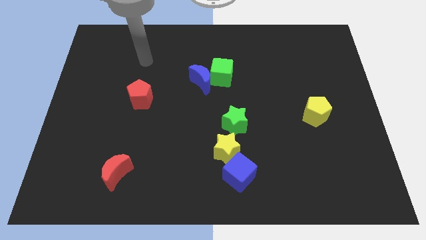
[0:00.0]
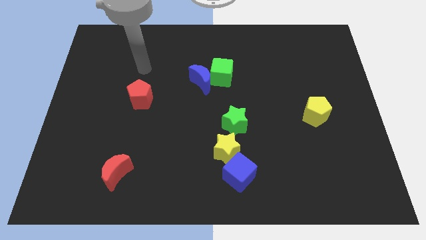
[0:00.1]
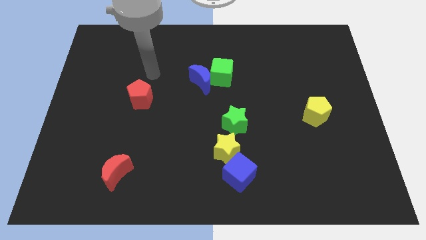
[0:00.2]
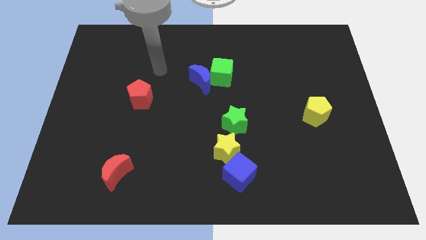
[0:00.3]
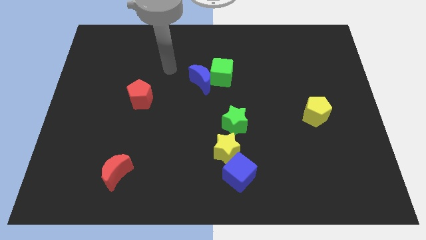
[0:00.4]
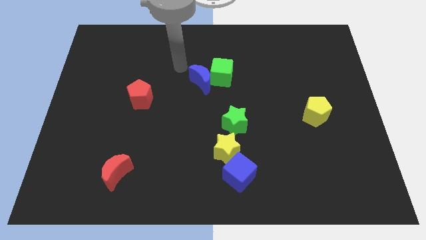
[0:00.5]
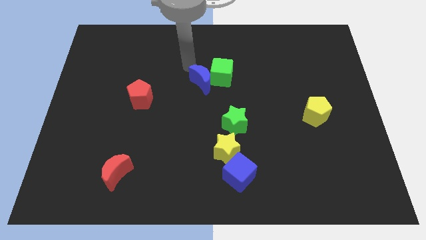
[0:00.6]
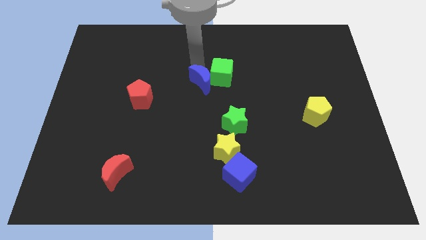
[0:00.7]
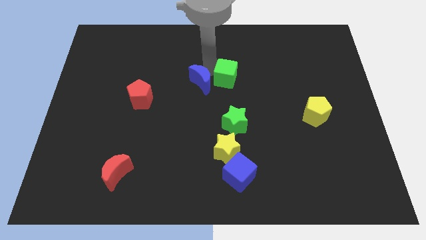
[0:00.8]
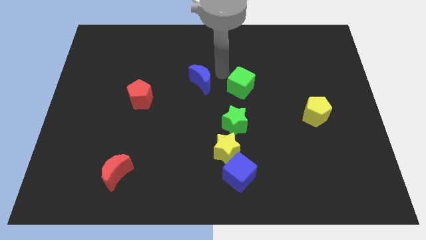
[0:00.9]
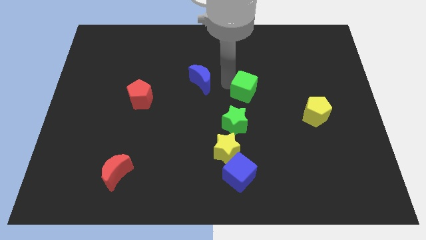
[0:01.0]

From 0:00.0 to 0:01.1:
pull the blue moon apart from the green cube

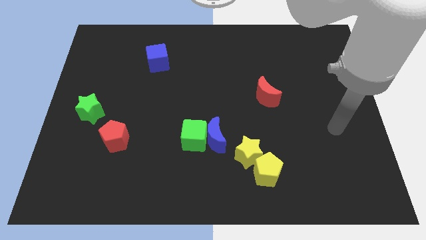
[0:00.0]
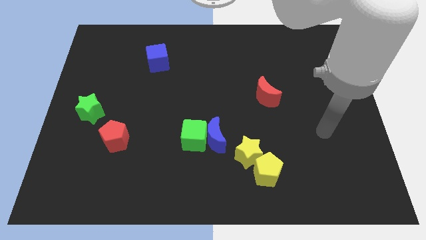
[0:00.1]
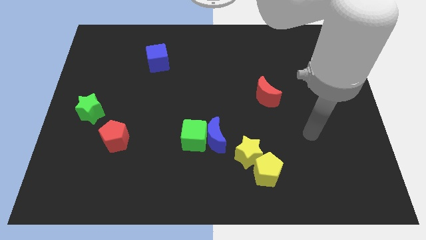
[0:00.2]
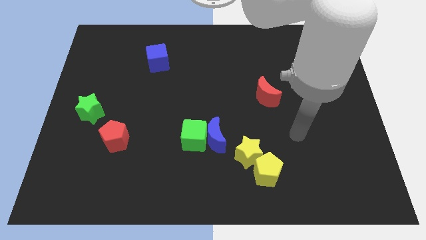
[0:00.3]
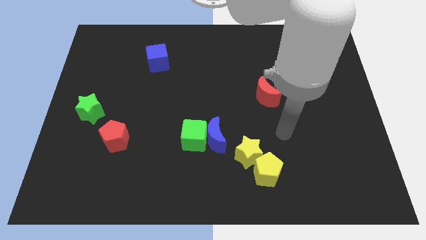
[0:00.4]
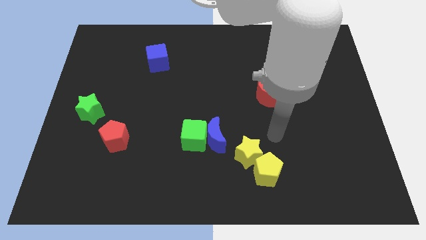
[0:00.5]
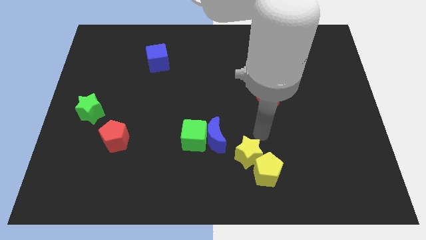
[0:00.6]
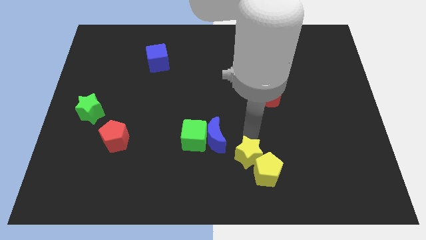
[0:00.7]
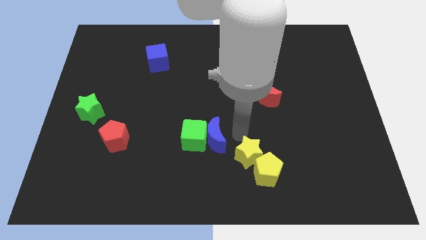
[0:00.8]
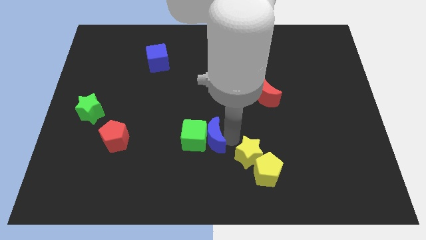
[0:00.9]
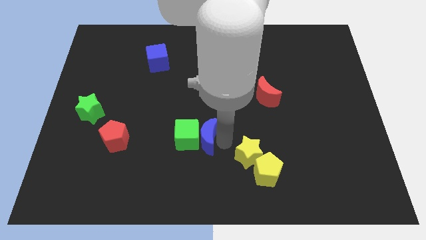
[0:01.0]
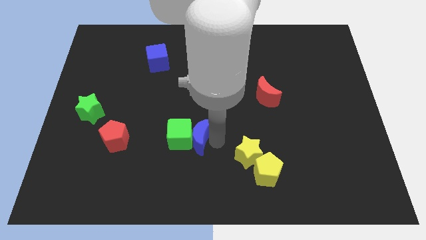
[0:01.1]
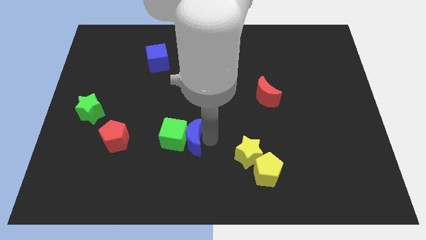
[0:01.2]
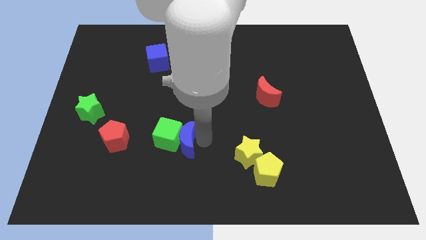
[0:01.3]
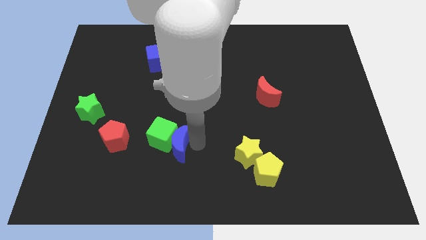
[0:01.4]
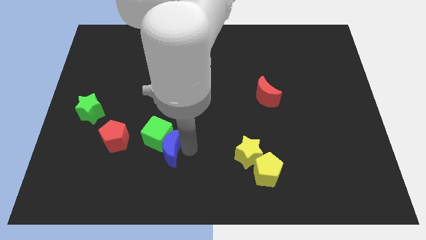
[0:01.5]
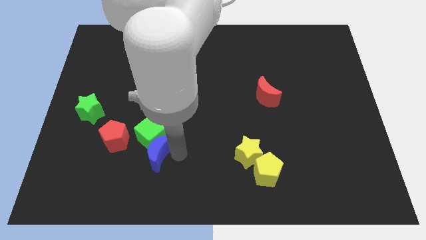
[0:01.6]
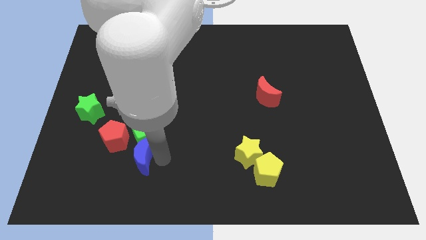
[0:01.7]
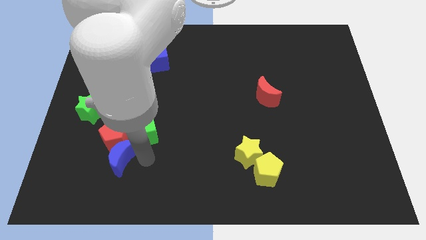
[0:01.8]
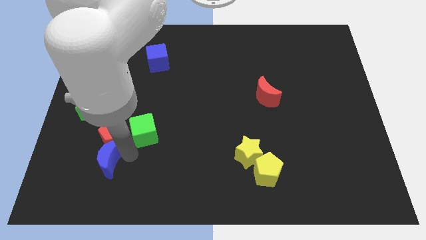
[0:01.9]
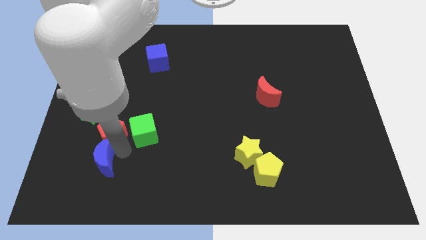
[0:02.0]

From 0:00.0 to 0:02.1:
pull the green cube apart from the blue moon

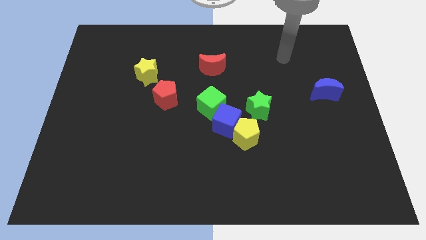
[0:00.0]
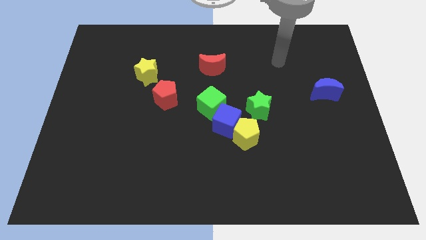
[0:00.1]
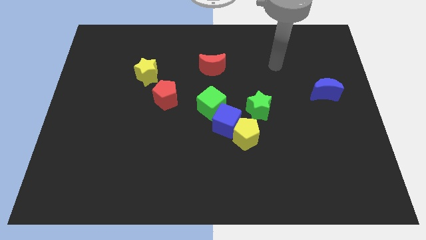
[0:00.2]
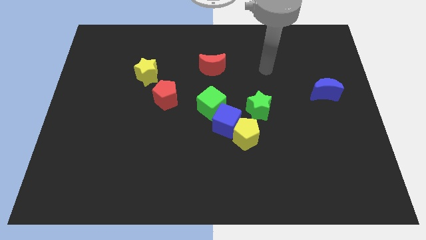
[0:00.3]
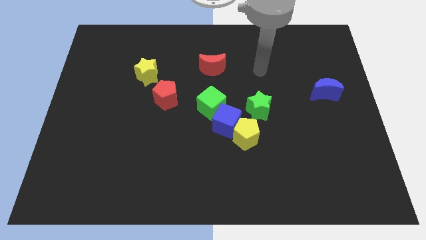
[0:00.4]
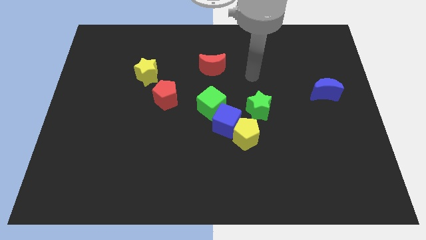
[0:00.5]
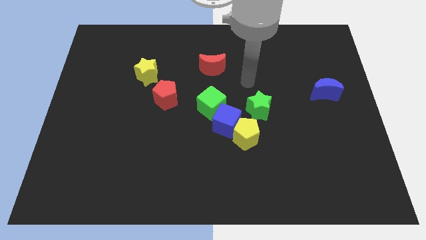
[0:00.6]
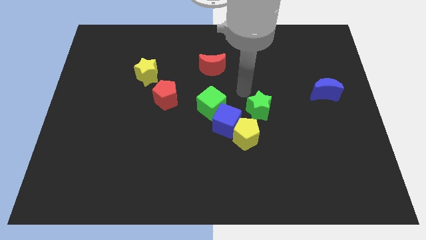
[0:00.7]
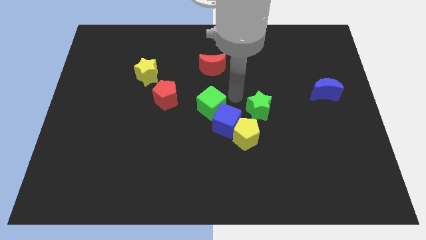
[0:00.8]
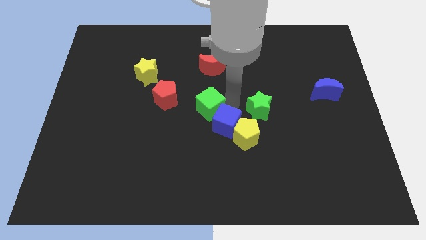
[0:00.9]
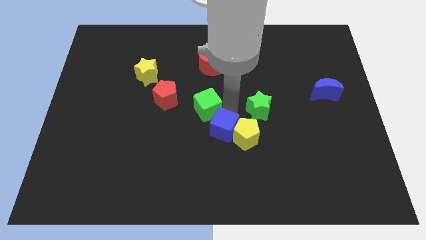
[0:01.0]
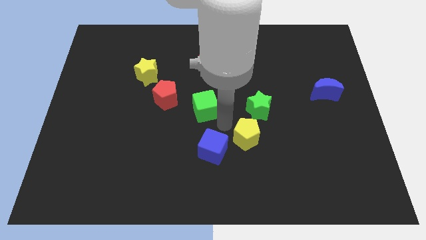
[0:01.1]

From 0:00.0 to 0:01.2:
move the green cube away from the blue cube

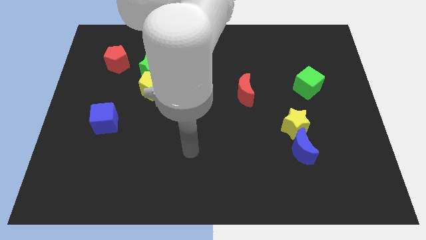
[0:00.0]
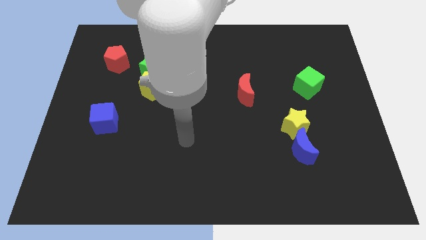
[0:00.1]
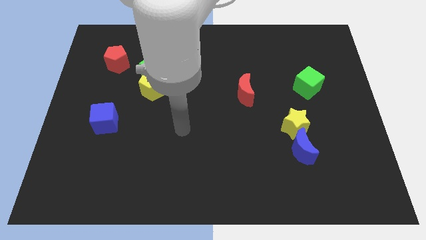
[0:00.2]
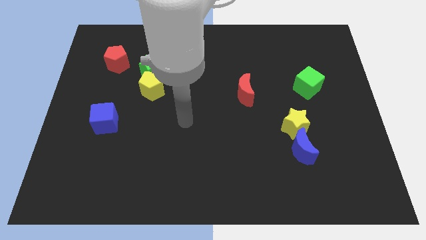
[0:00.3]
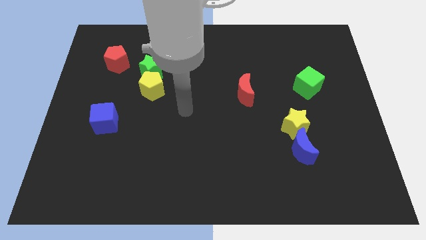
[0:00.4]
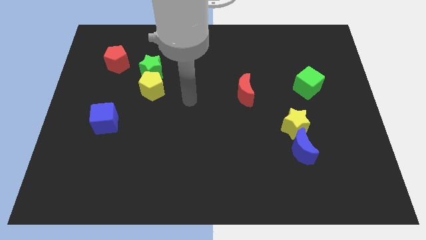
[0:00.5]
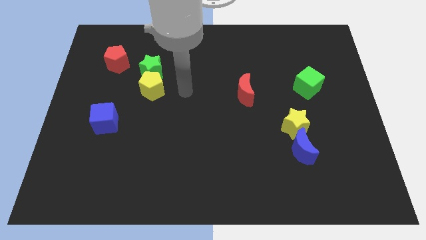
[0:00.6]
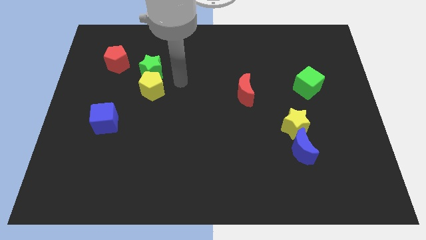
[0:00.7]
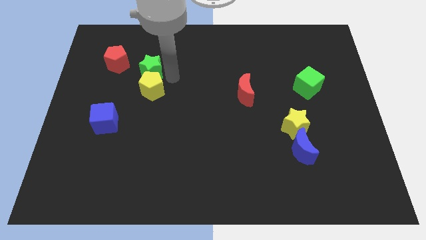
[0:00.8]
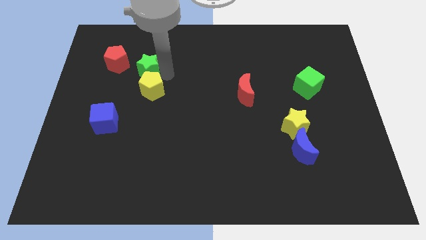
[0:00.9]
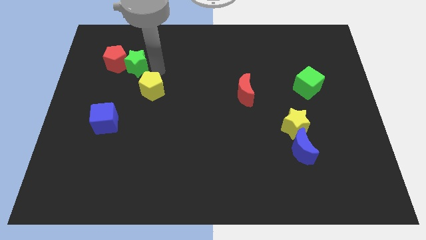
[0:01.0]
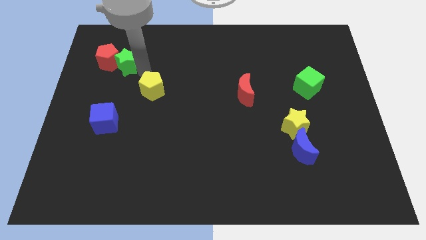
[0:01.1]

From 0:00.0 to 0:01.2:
pull the yellow pentagon apart from the green star

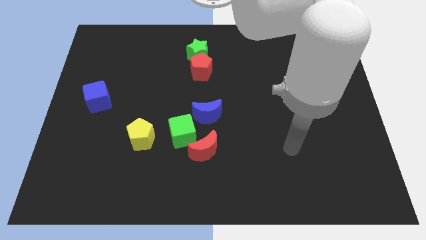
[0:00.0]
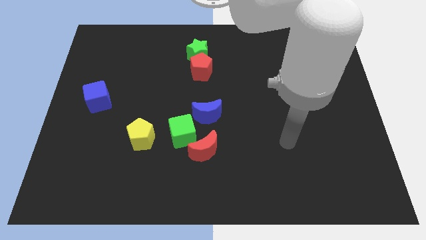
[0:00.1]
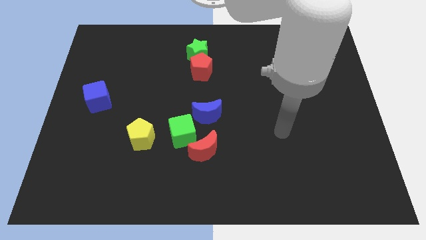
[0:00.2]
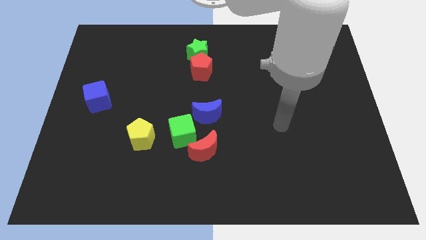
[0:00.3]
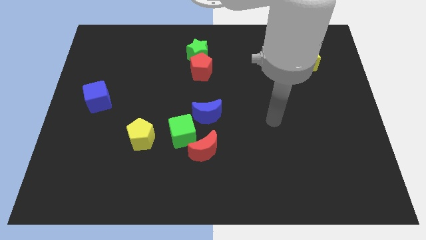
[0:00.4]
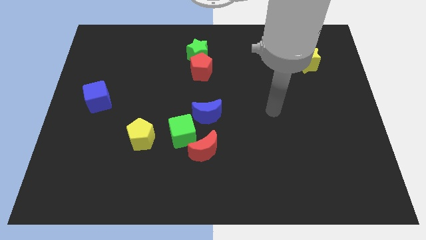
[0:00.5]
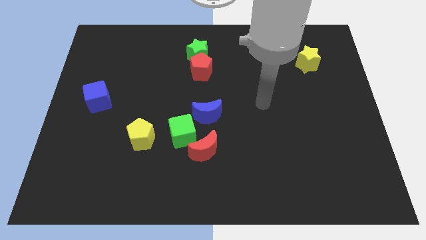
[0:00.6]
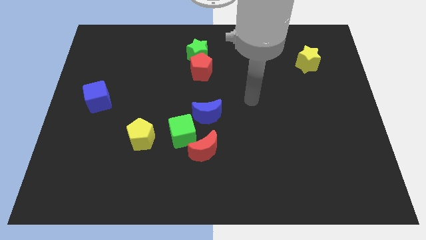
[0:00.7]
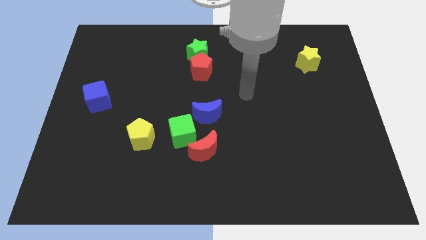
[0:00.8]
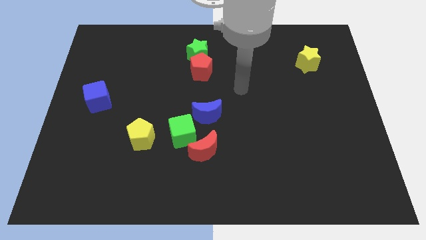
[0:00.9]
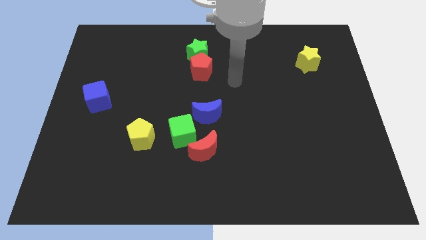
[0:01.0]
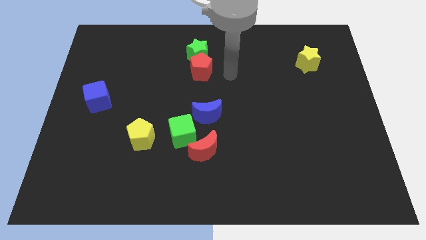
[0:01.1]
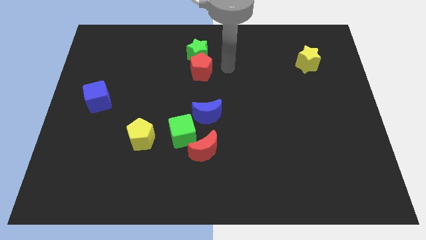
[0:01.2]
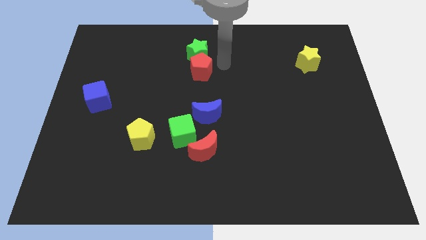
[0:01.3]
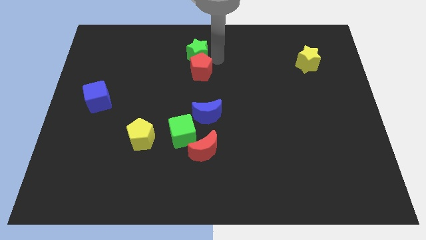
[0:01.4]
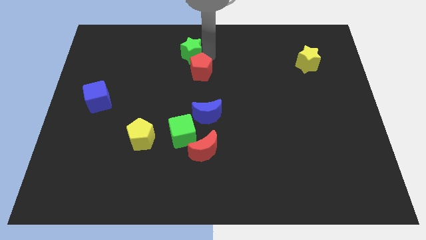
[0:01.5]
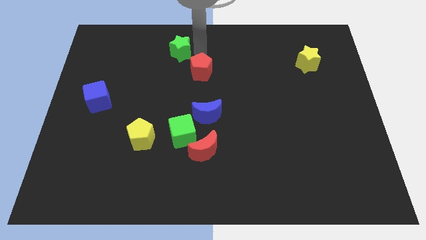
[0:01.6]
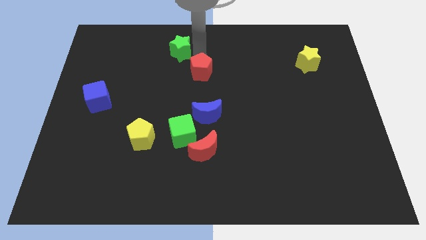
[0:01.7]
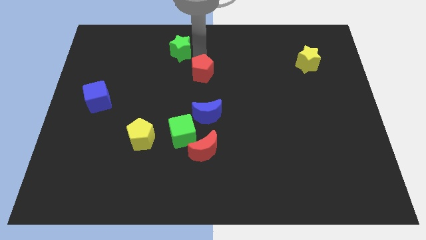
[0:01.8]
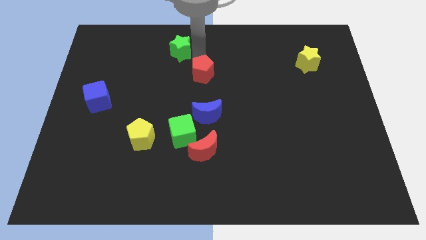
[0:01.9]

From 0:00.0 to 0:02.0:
pull the red pentagon apart from the green star

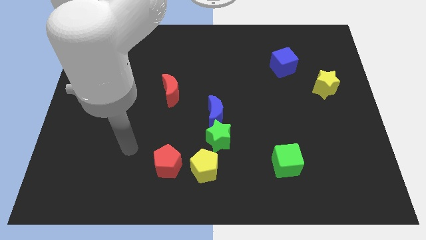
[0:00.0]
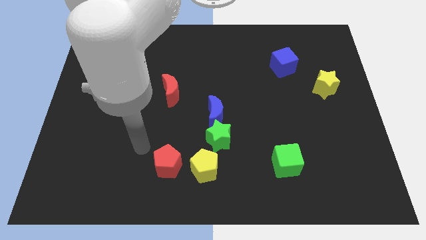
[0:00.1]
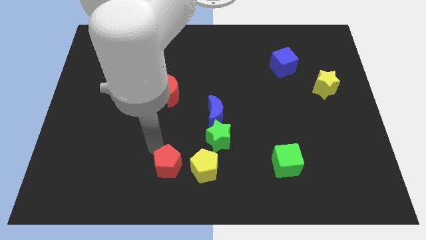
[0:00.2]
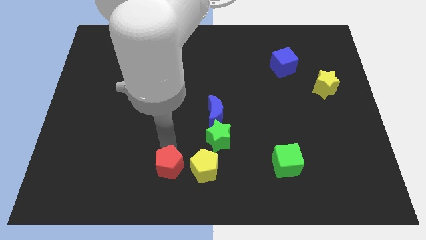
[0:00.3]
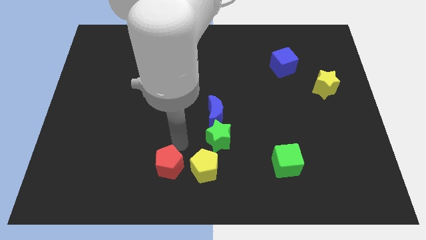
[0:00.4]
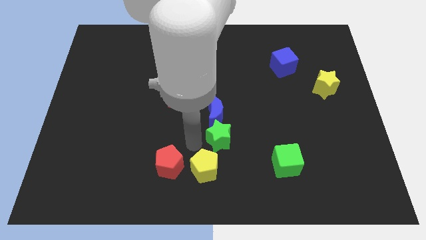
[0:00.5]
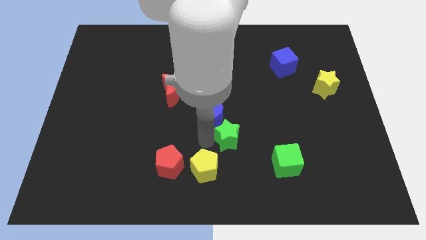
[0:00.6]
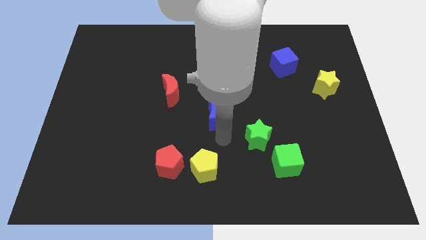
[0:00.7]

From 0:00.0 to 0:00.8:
separate the blue moon from the green star

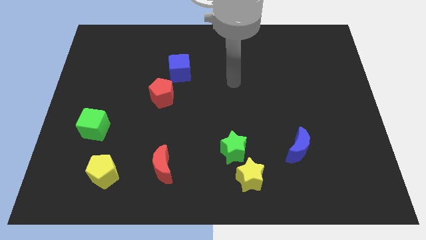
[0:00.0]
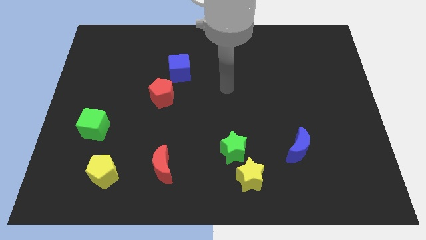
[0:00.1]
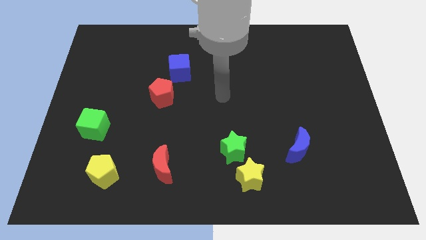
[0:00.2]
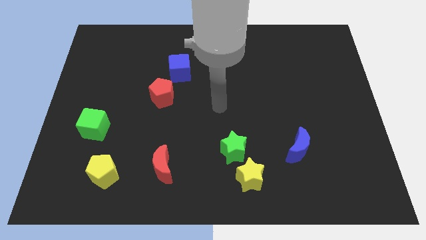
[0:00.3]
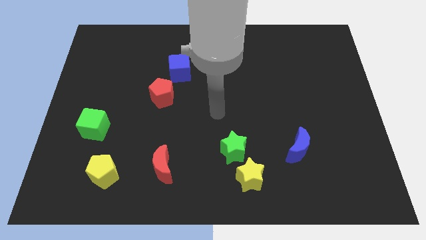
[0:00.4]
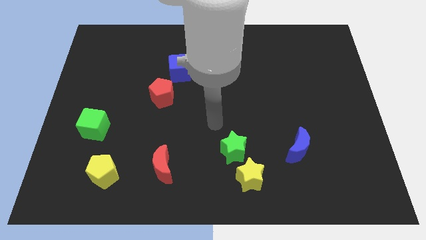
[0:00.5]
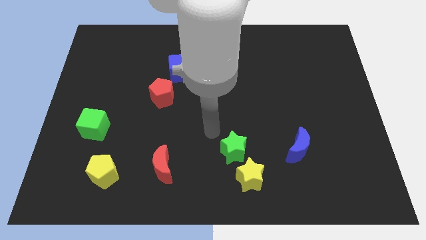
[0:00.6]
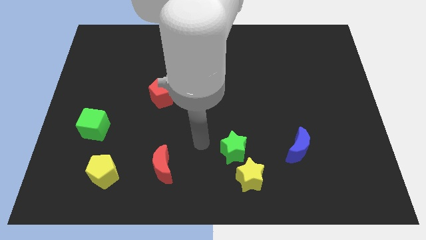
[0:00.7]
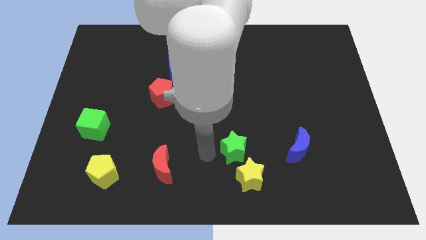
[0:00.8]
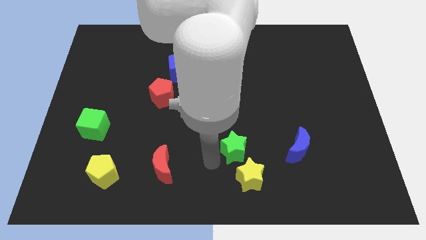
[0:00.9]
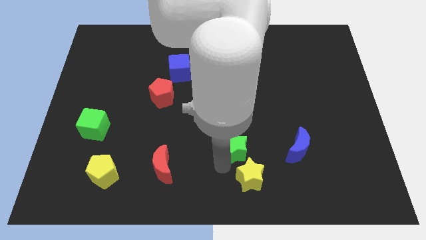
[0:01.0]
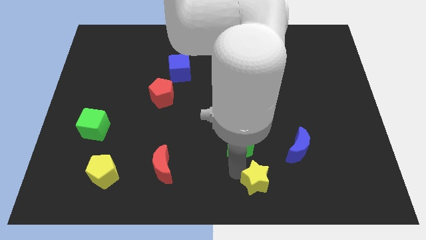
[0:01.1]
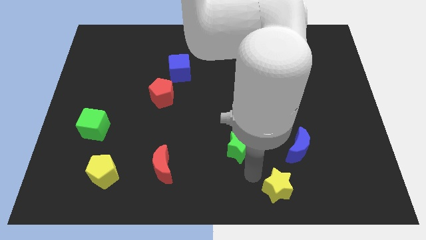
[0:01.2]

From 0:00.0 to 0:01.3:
separate the green star from the yellow star
